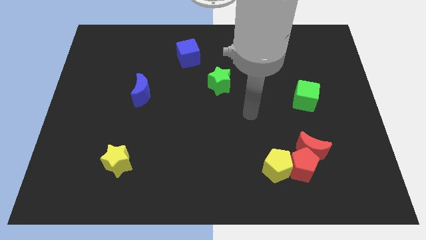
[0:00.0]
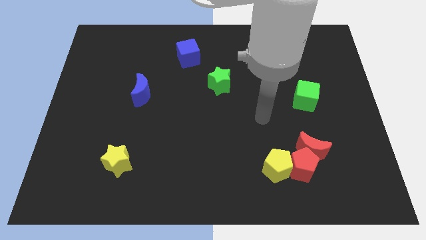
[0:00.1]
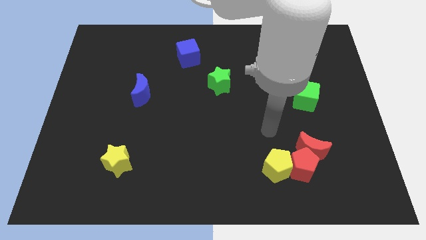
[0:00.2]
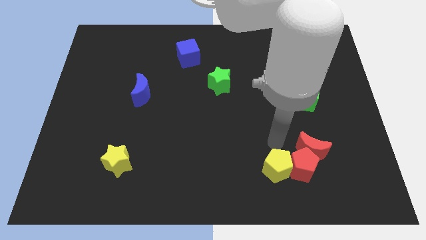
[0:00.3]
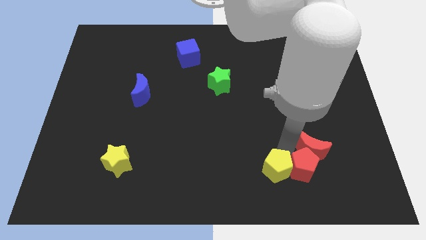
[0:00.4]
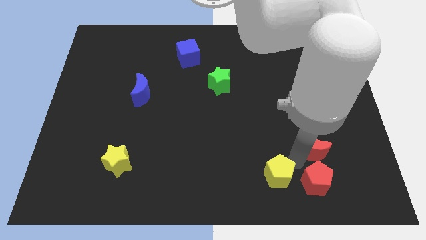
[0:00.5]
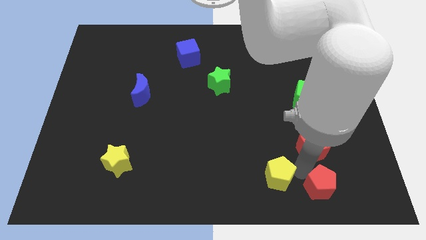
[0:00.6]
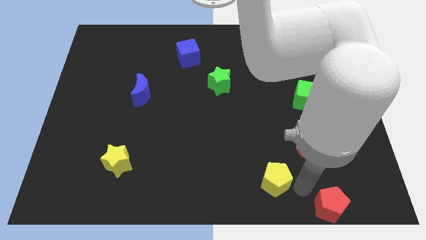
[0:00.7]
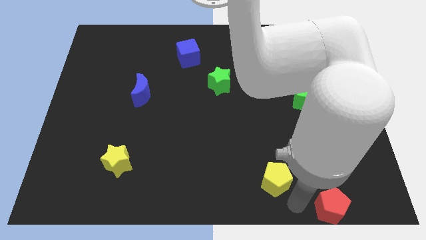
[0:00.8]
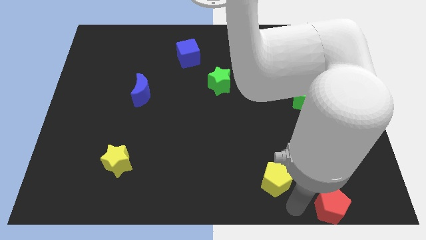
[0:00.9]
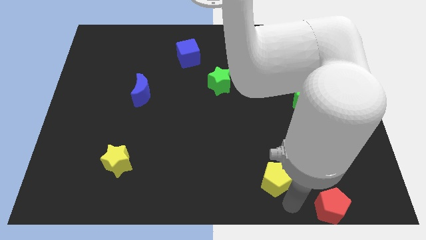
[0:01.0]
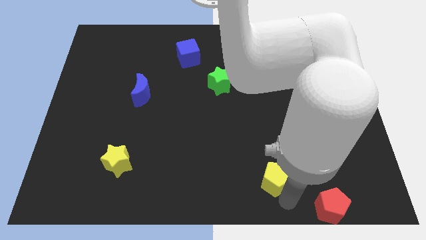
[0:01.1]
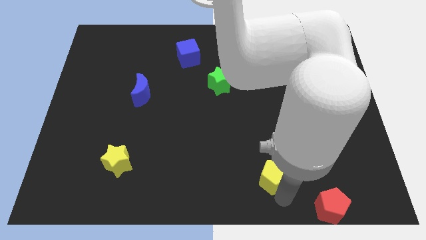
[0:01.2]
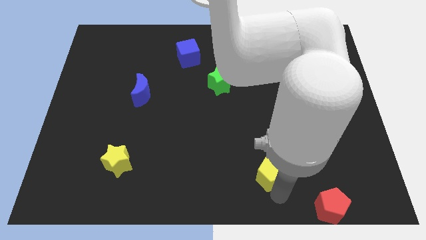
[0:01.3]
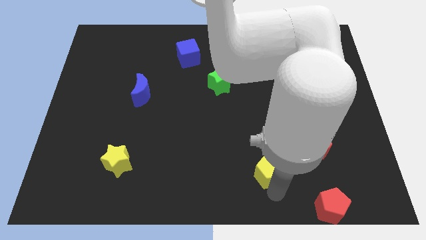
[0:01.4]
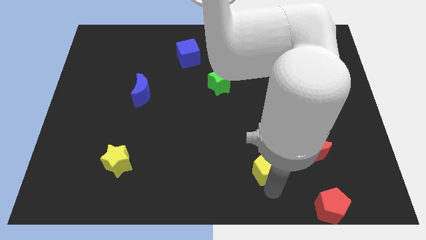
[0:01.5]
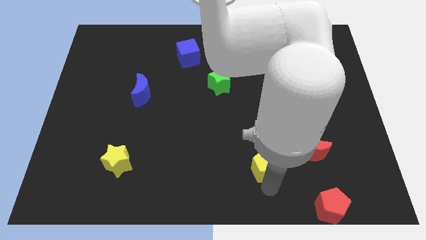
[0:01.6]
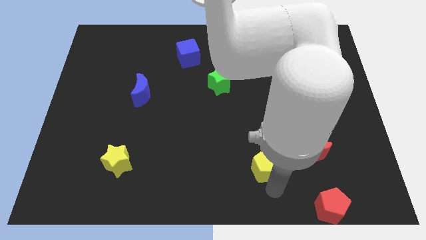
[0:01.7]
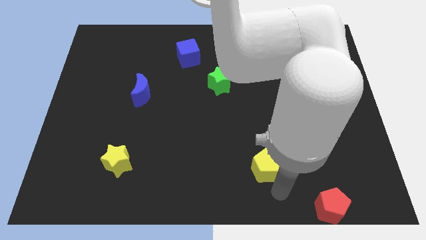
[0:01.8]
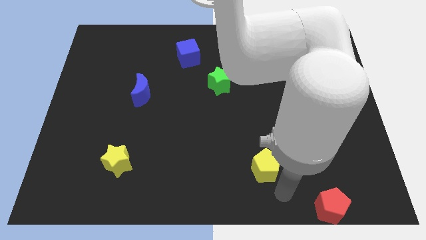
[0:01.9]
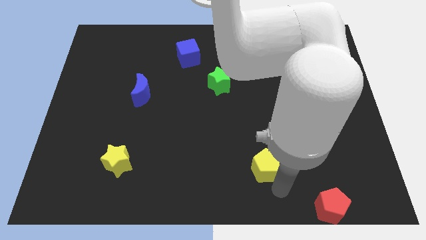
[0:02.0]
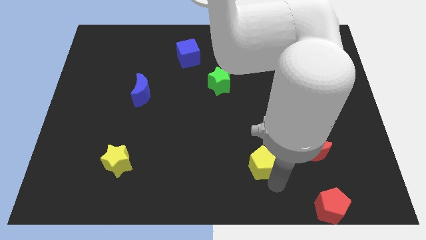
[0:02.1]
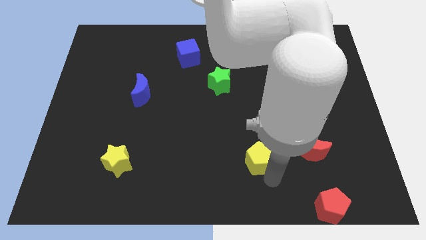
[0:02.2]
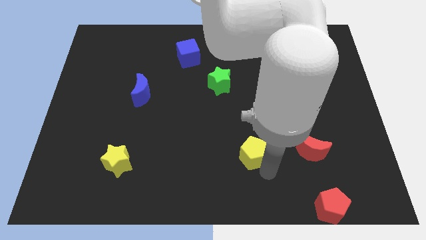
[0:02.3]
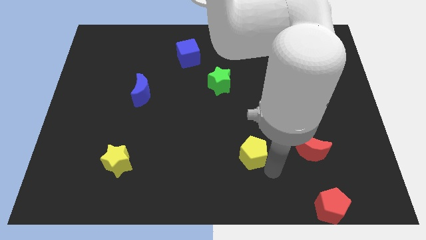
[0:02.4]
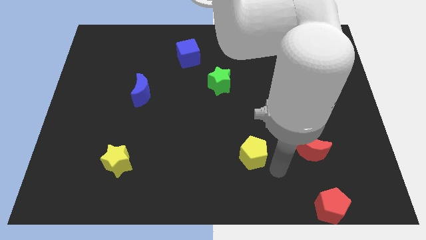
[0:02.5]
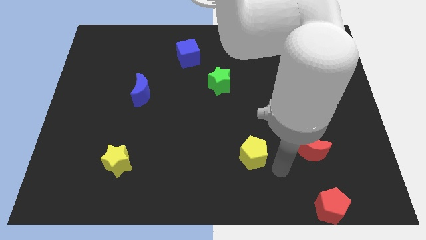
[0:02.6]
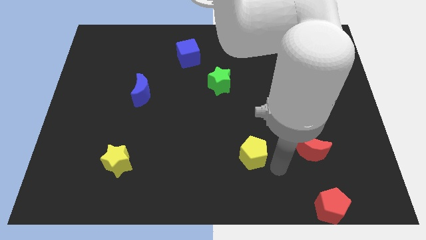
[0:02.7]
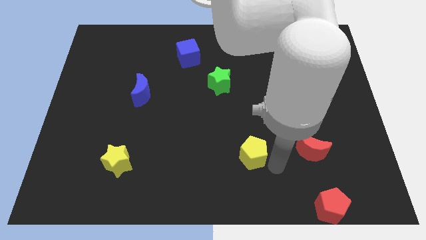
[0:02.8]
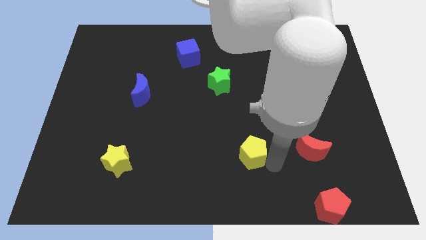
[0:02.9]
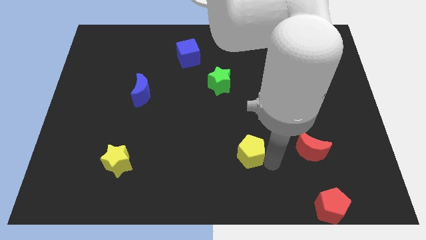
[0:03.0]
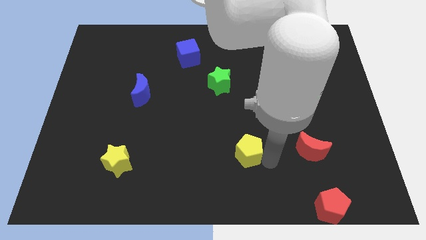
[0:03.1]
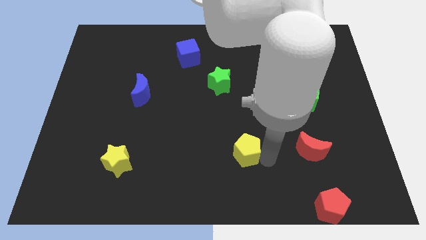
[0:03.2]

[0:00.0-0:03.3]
slightly push the yellow pentagon up and then to the left

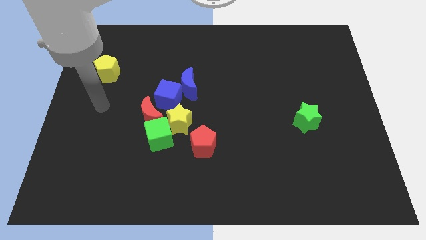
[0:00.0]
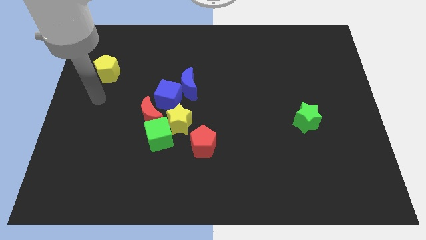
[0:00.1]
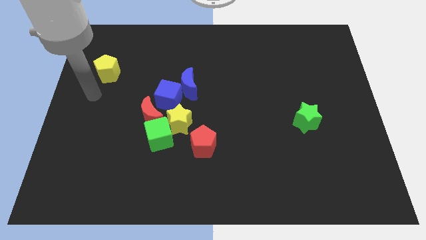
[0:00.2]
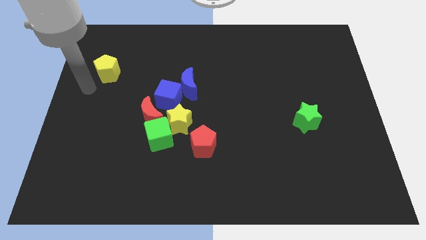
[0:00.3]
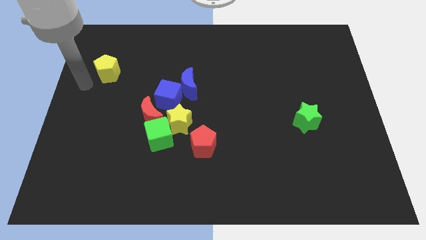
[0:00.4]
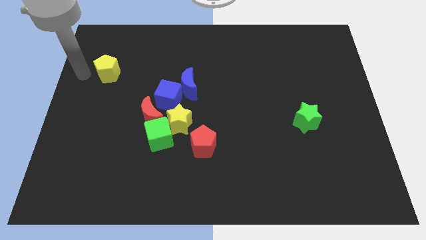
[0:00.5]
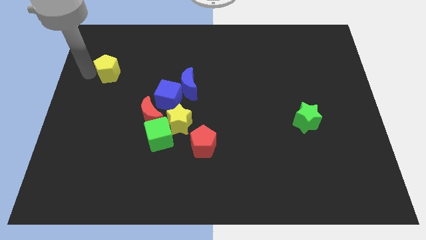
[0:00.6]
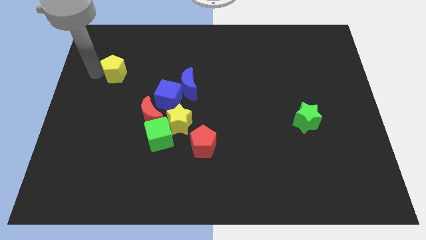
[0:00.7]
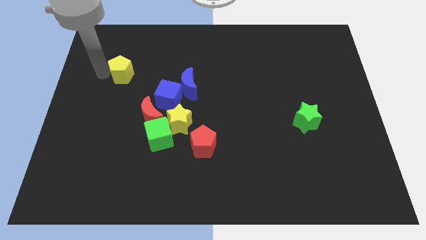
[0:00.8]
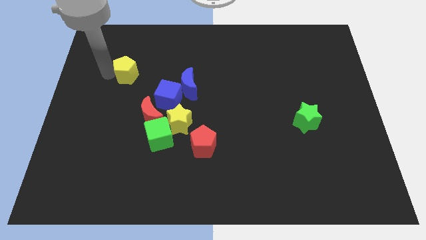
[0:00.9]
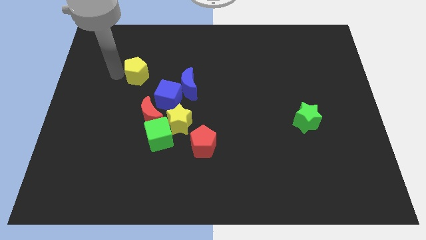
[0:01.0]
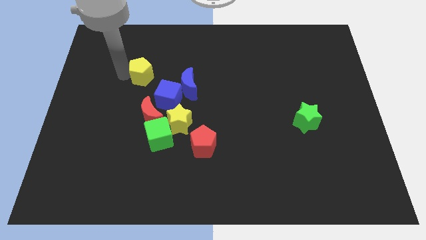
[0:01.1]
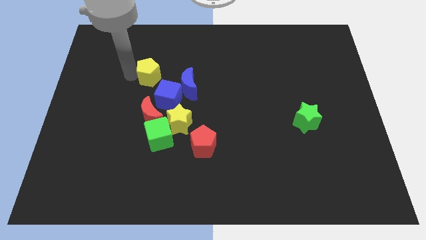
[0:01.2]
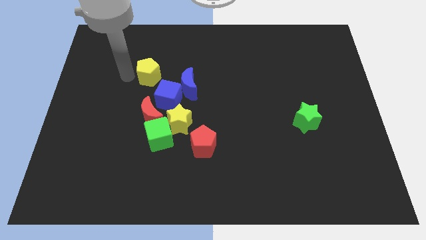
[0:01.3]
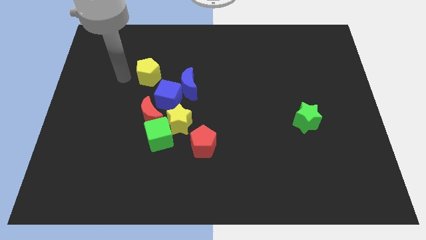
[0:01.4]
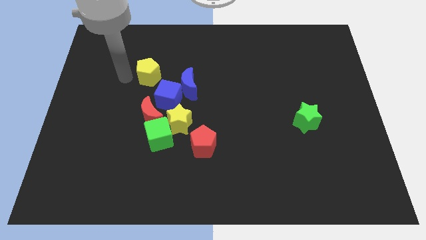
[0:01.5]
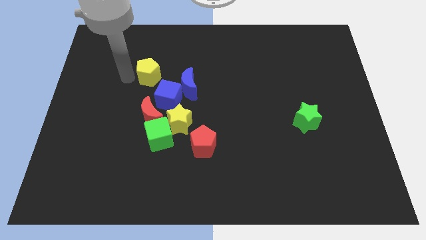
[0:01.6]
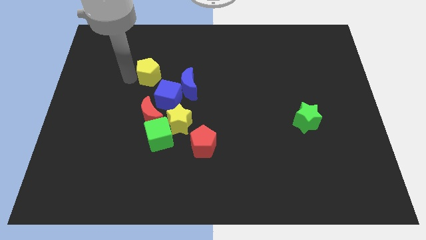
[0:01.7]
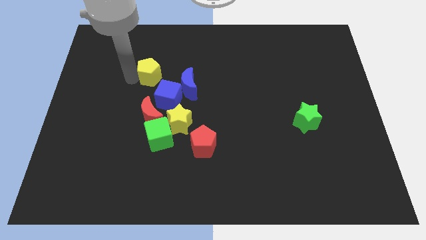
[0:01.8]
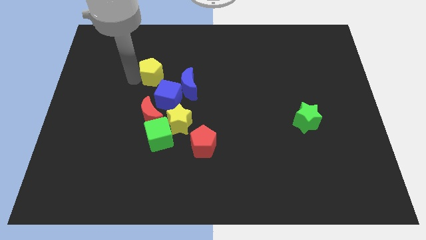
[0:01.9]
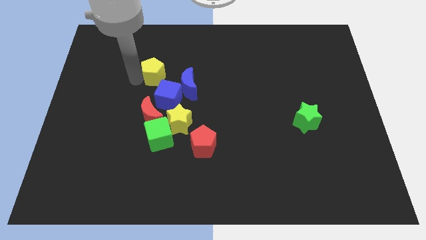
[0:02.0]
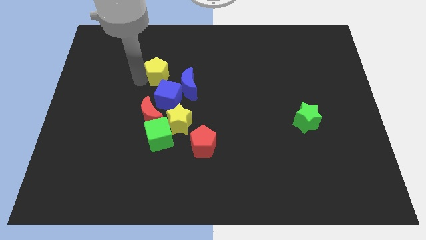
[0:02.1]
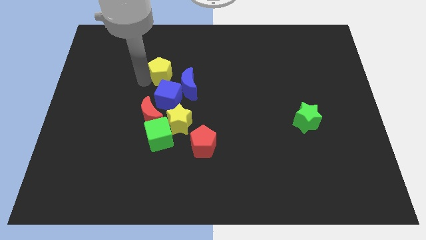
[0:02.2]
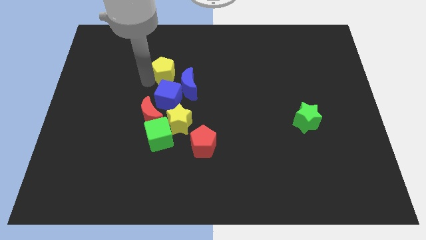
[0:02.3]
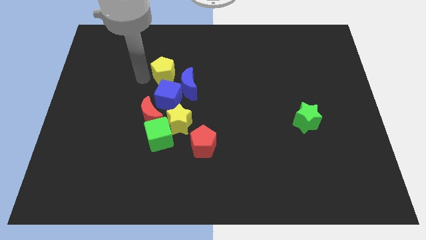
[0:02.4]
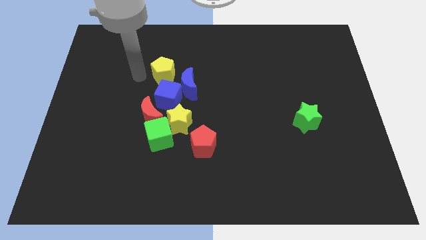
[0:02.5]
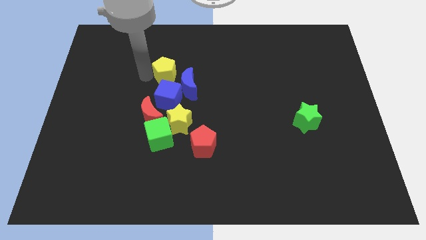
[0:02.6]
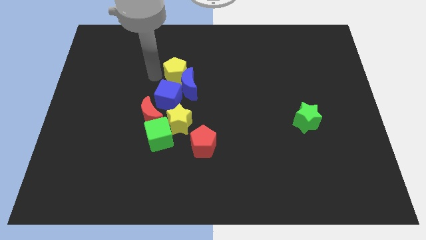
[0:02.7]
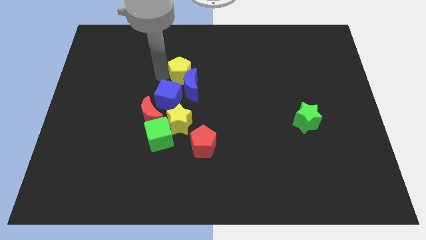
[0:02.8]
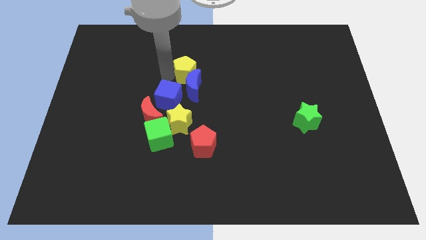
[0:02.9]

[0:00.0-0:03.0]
move the yellow pentagon to the right

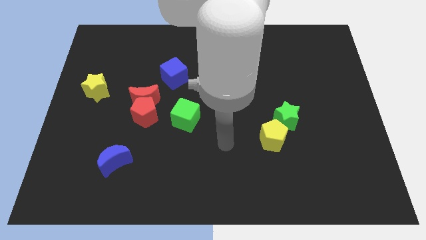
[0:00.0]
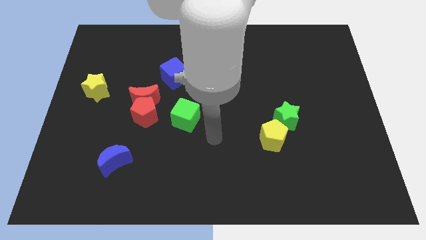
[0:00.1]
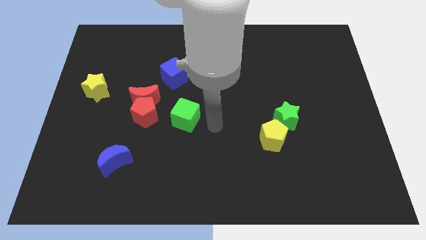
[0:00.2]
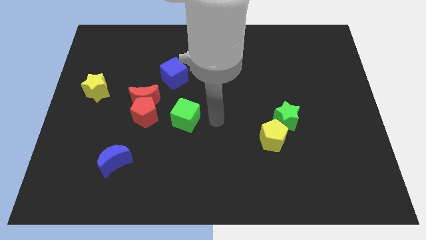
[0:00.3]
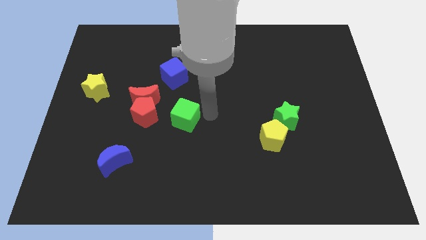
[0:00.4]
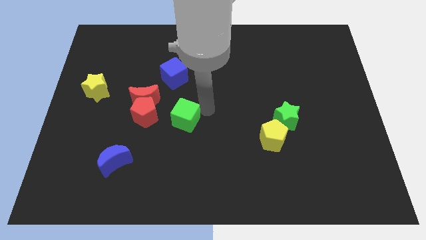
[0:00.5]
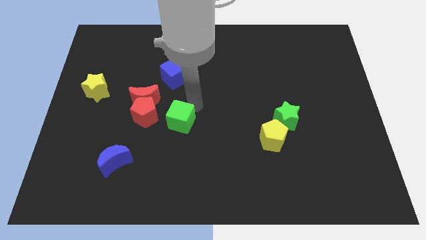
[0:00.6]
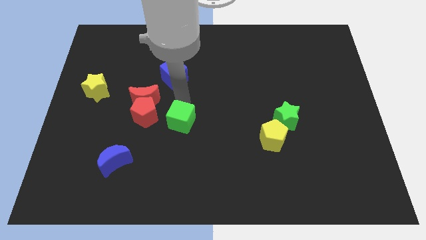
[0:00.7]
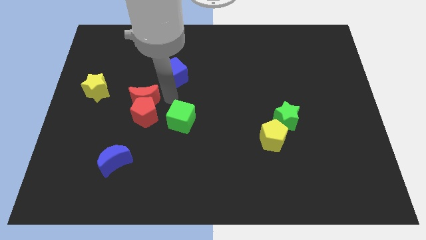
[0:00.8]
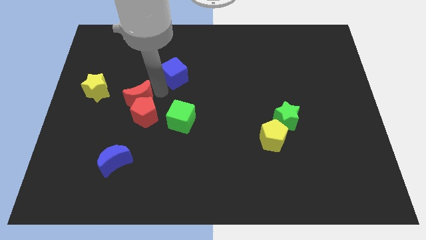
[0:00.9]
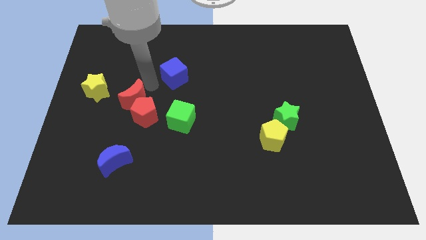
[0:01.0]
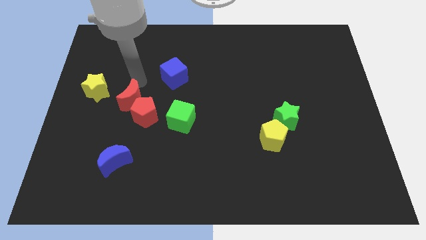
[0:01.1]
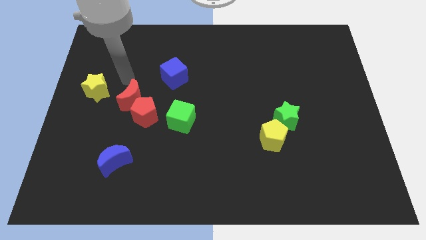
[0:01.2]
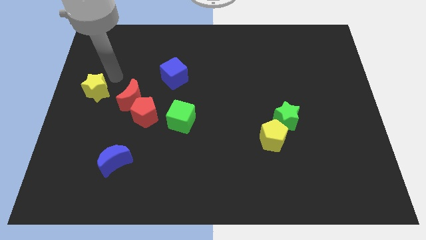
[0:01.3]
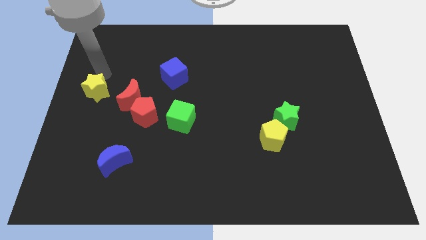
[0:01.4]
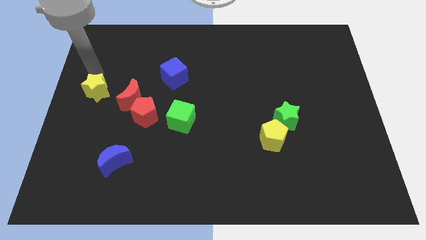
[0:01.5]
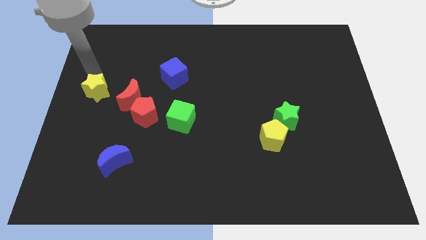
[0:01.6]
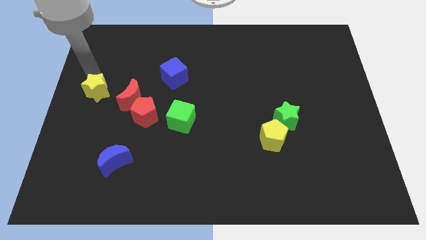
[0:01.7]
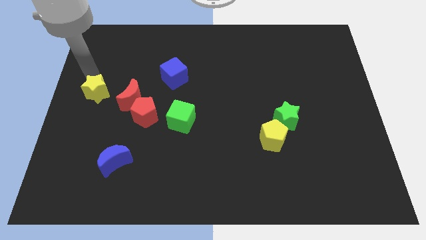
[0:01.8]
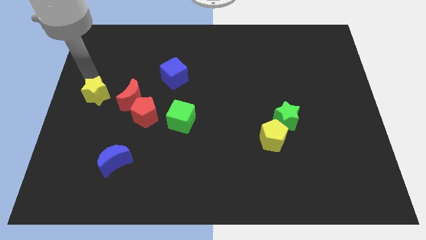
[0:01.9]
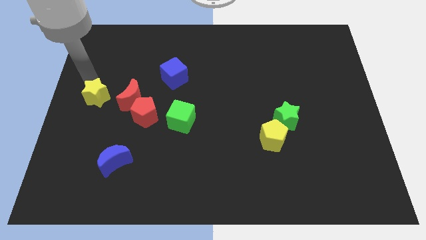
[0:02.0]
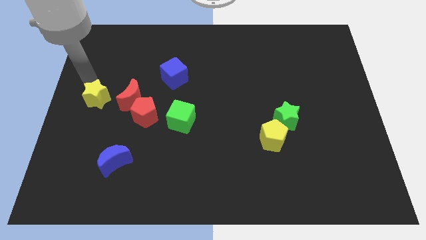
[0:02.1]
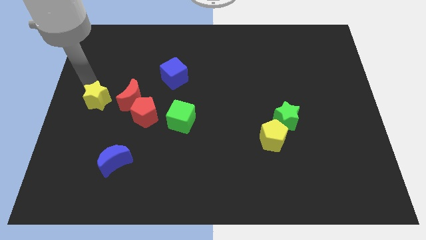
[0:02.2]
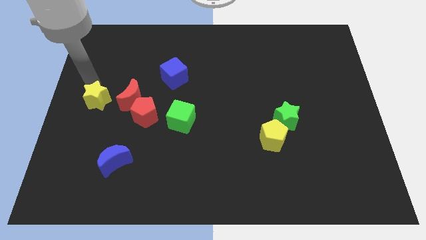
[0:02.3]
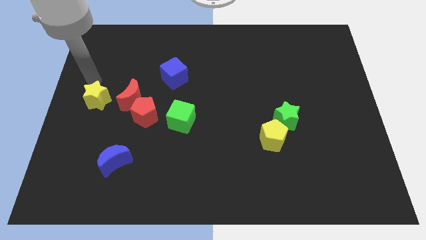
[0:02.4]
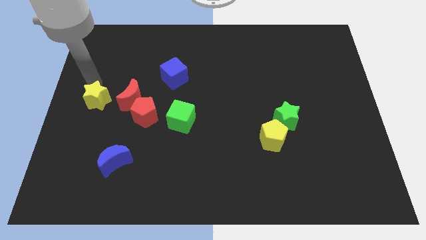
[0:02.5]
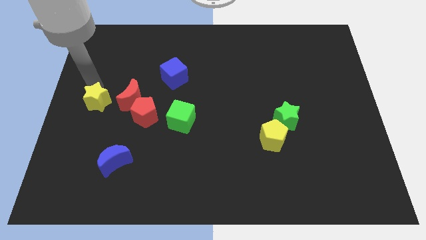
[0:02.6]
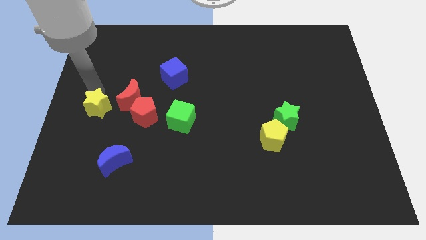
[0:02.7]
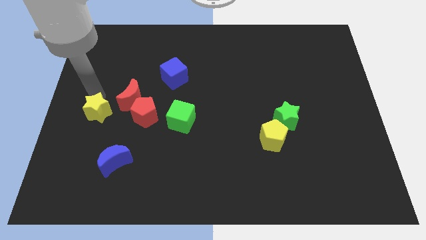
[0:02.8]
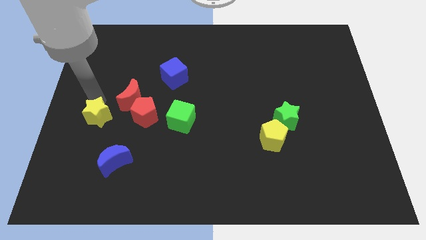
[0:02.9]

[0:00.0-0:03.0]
move the yellow star somewhat downwards
